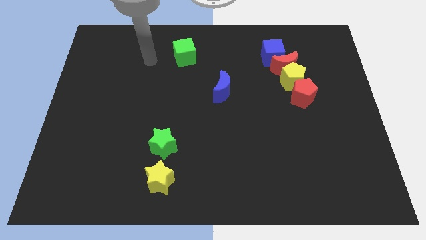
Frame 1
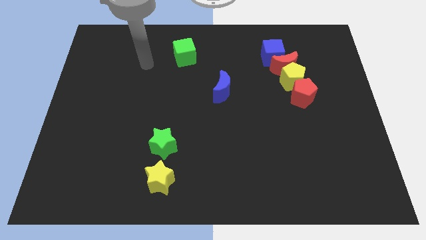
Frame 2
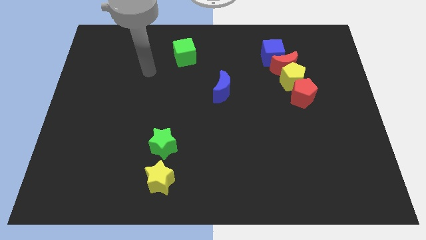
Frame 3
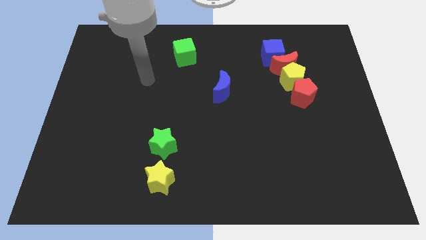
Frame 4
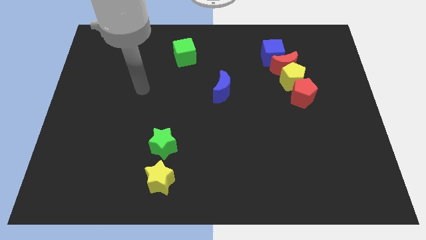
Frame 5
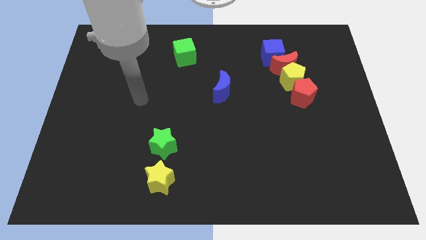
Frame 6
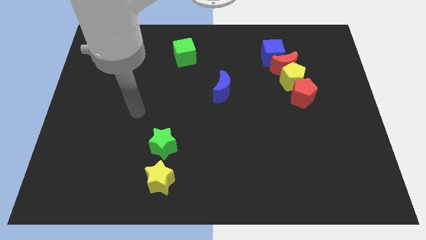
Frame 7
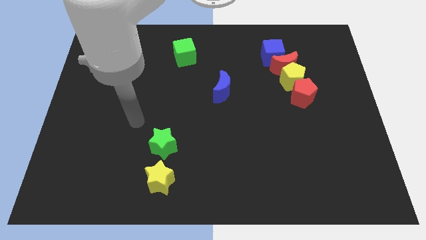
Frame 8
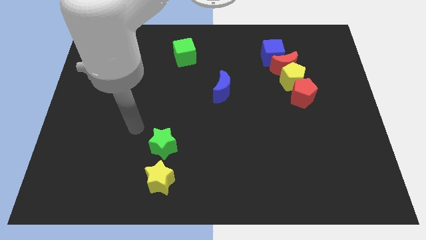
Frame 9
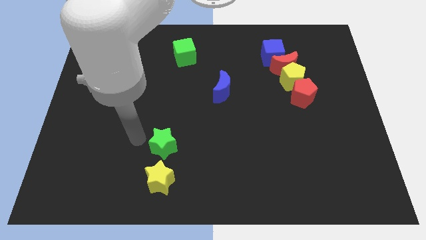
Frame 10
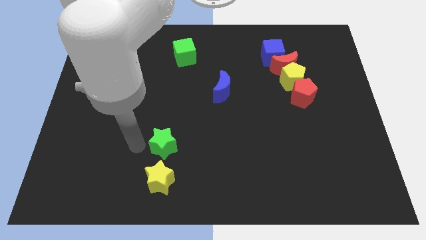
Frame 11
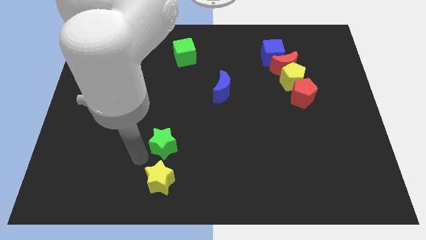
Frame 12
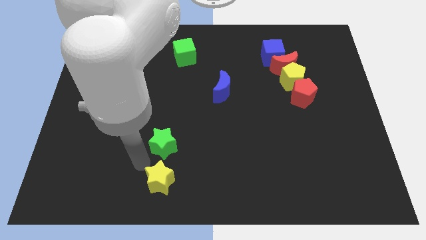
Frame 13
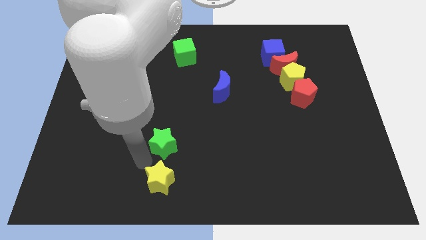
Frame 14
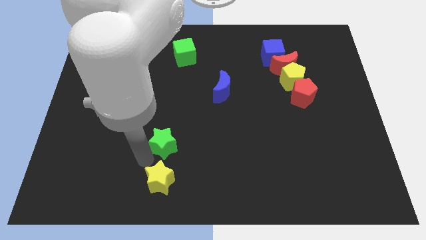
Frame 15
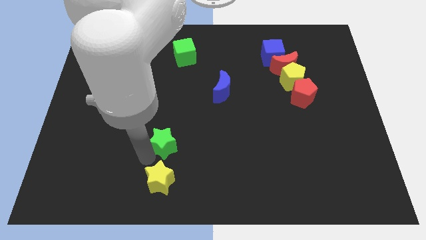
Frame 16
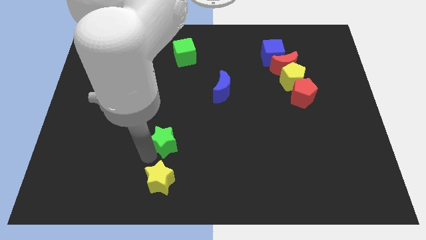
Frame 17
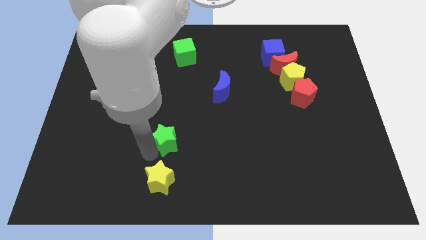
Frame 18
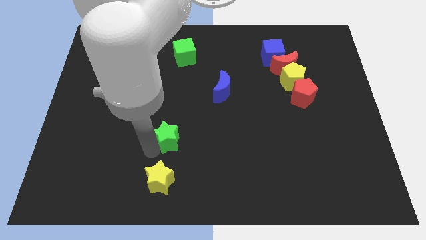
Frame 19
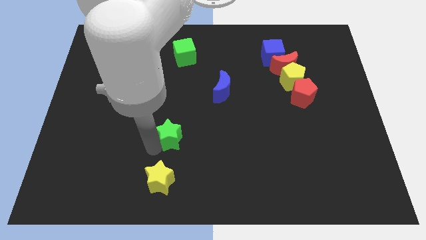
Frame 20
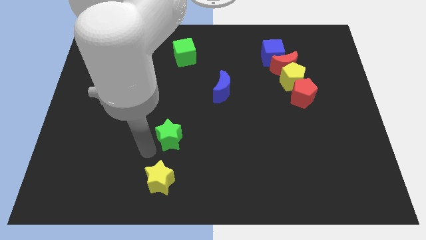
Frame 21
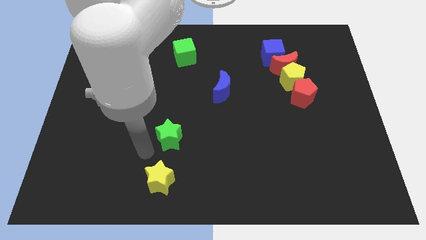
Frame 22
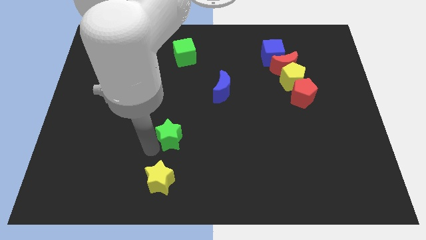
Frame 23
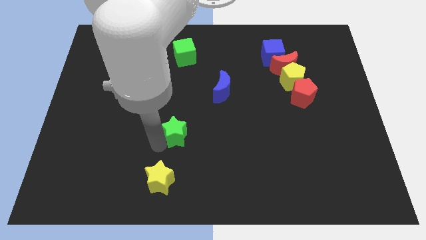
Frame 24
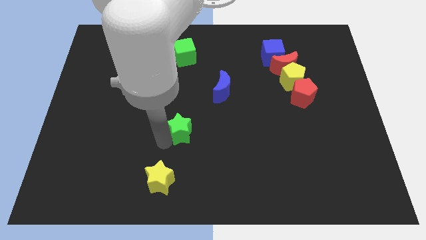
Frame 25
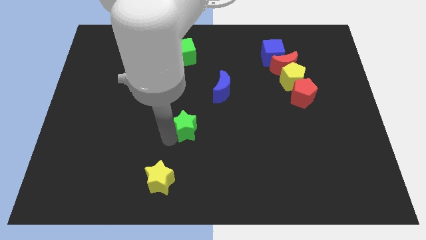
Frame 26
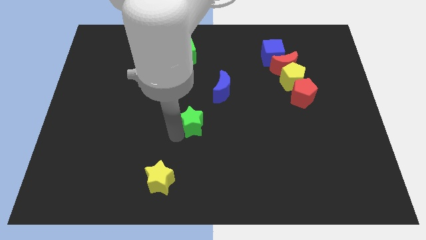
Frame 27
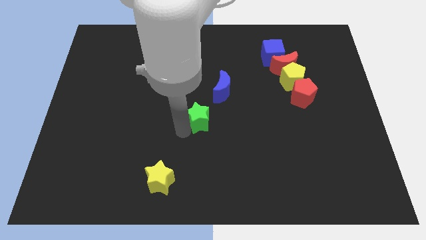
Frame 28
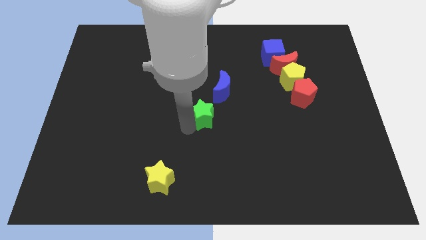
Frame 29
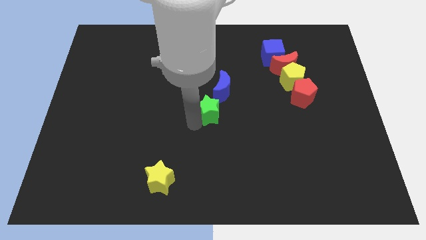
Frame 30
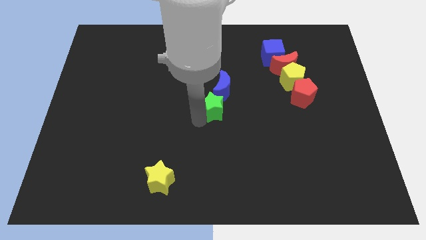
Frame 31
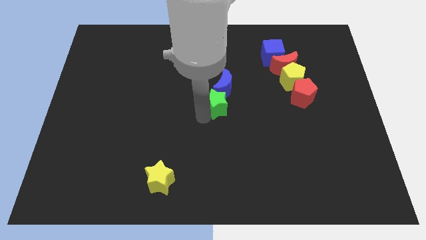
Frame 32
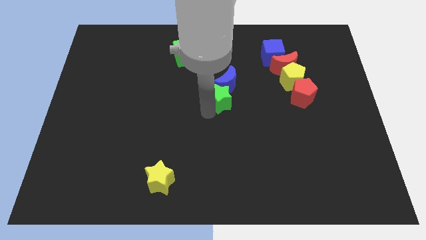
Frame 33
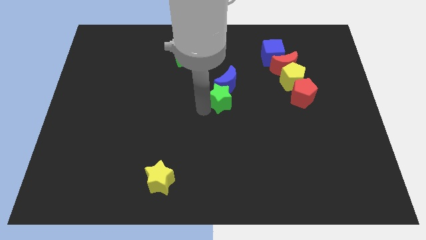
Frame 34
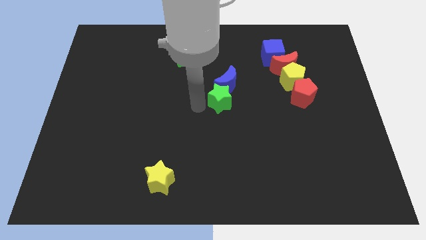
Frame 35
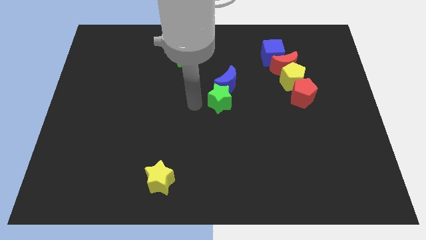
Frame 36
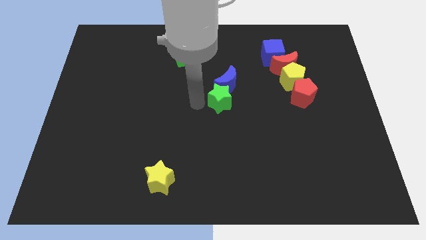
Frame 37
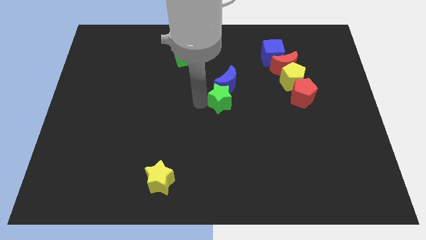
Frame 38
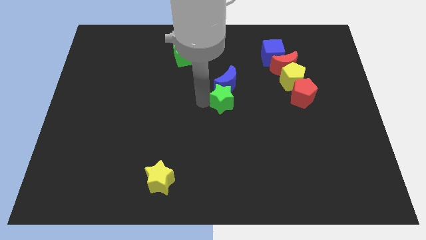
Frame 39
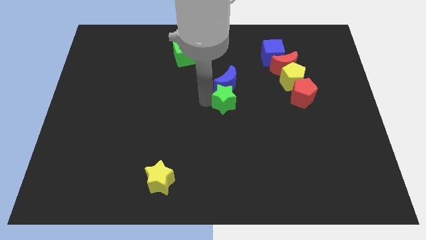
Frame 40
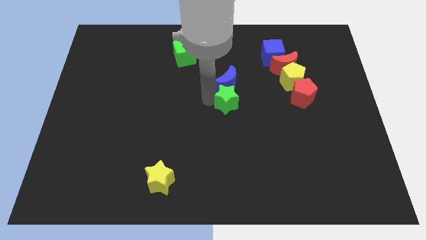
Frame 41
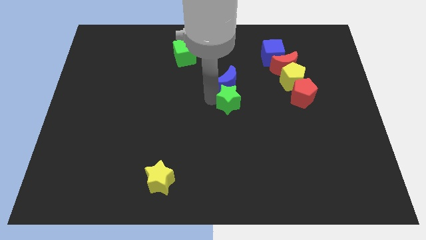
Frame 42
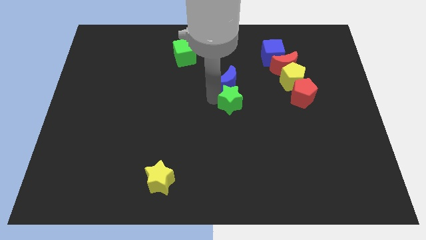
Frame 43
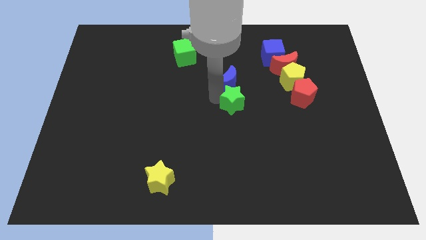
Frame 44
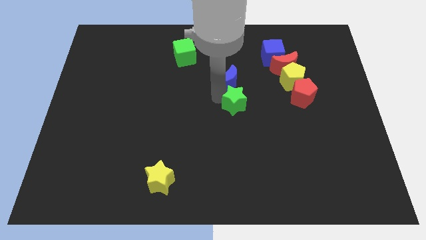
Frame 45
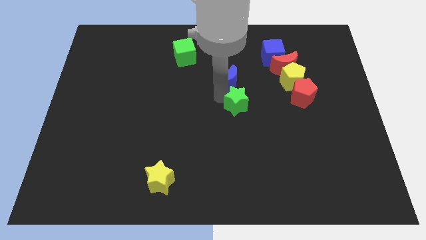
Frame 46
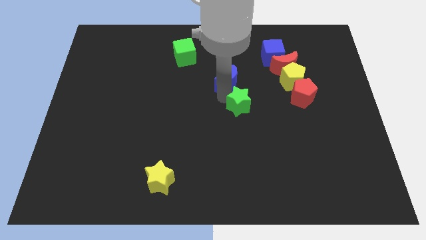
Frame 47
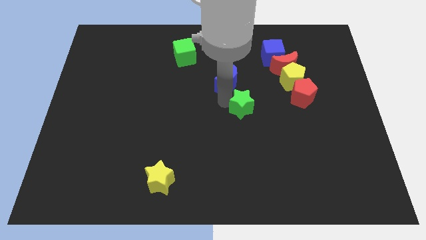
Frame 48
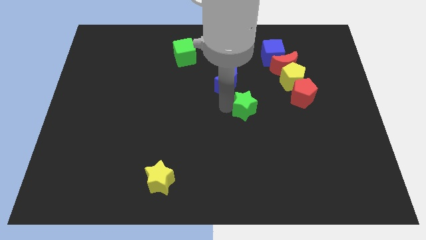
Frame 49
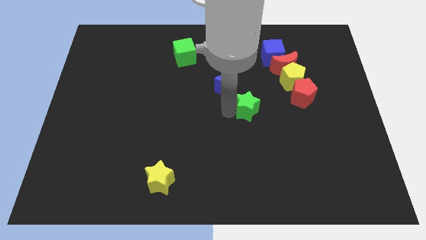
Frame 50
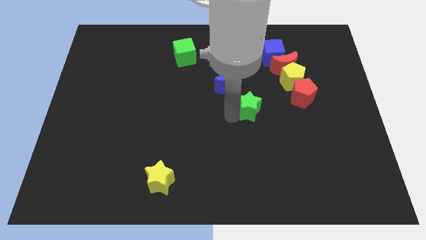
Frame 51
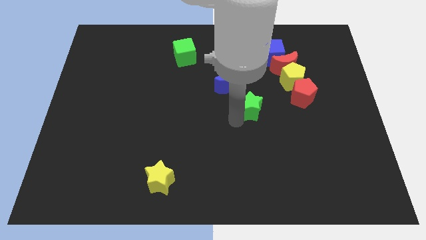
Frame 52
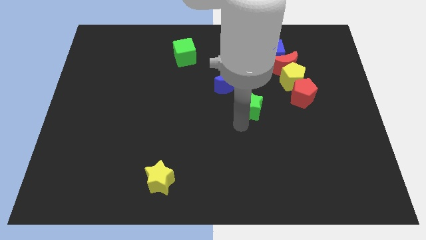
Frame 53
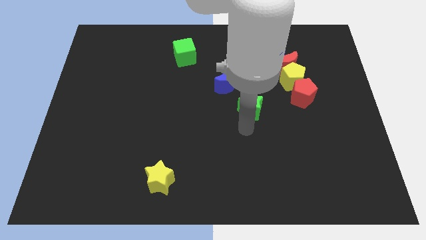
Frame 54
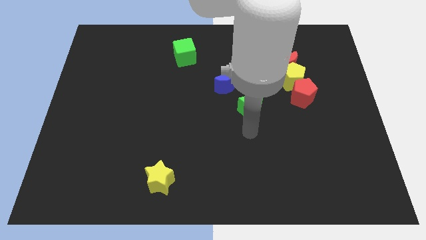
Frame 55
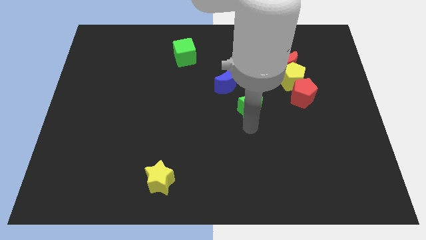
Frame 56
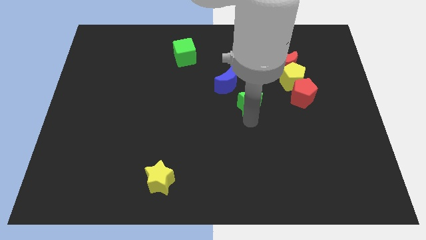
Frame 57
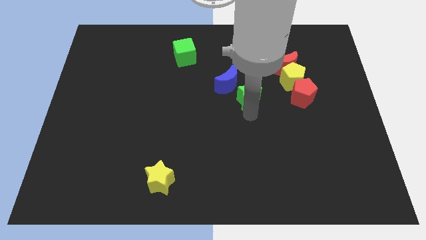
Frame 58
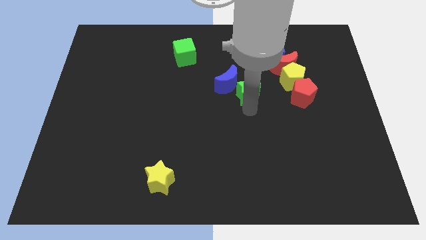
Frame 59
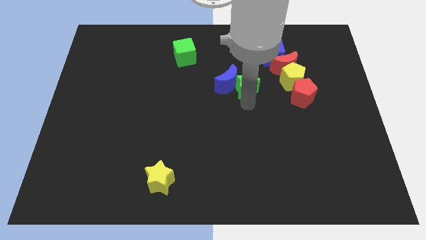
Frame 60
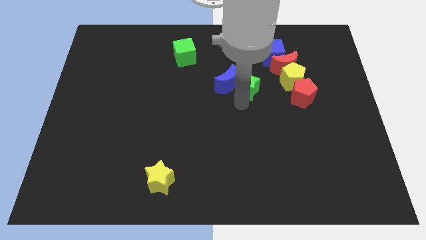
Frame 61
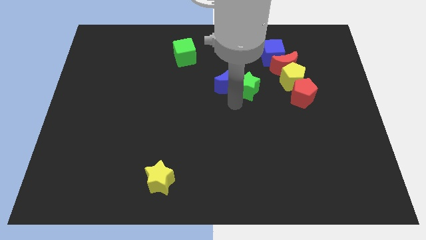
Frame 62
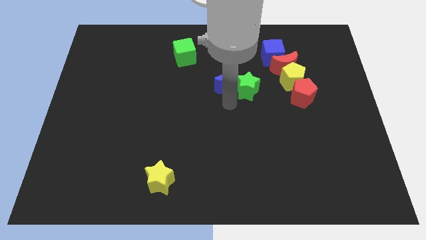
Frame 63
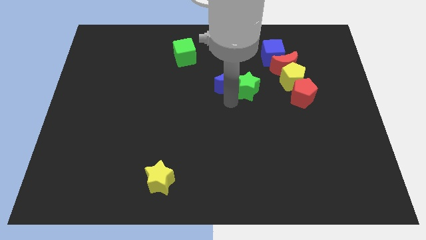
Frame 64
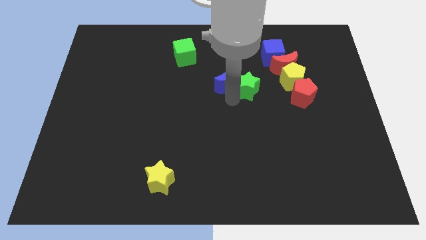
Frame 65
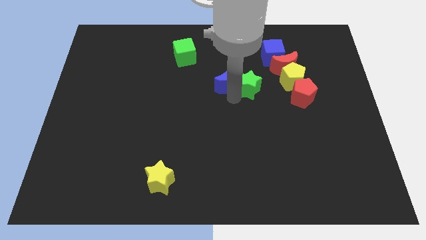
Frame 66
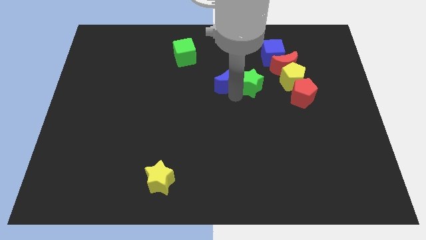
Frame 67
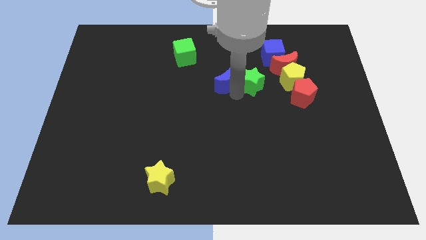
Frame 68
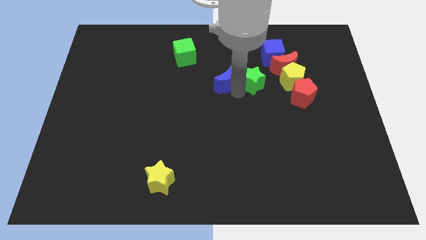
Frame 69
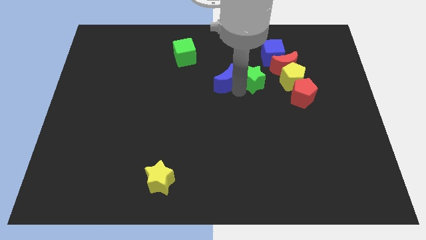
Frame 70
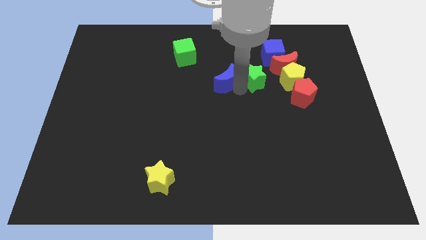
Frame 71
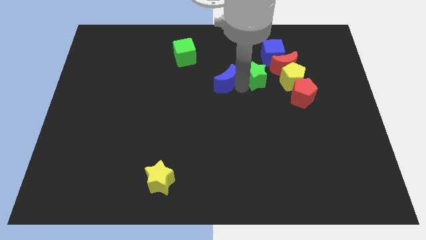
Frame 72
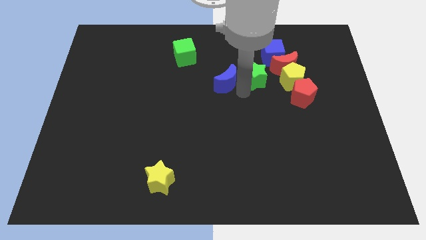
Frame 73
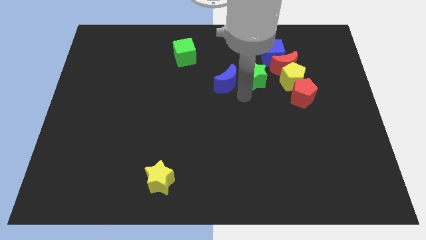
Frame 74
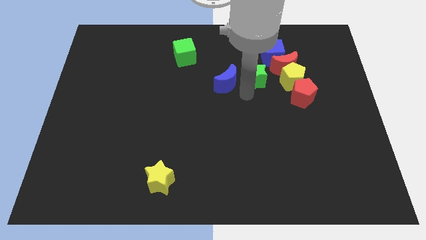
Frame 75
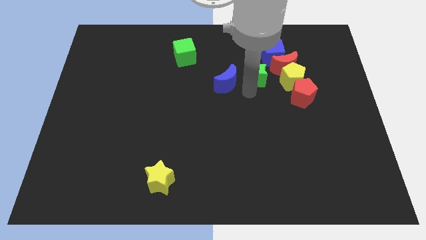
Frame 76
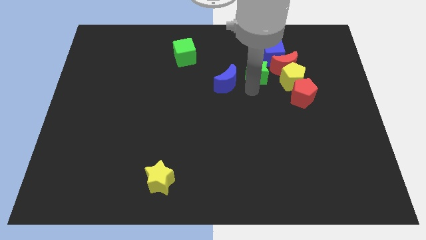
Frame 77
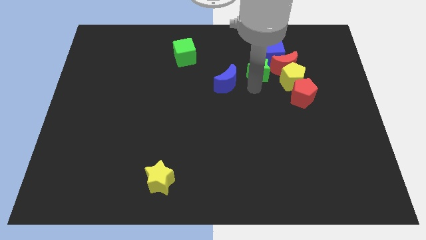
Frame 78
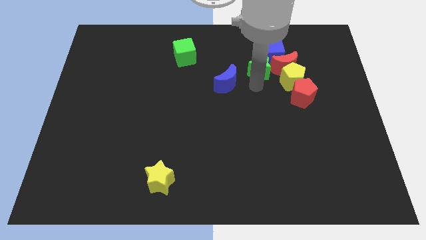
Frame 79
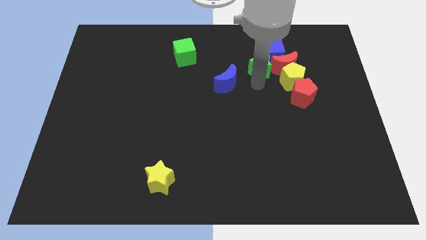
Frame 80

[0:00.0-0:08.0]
slide the green star towards the blue cube
